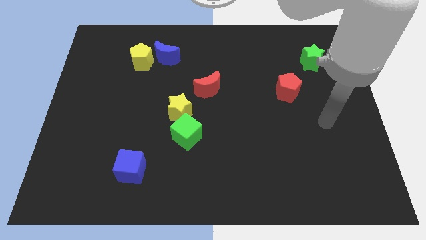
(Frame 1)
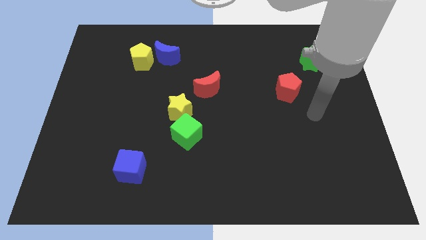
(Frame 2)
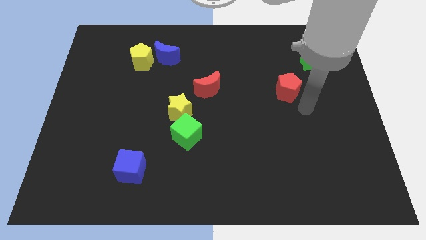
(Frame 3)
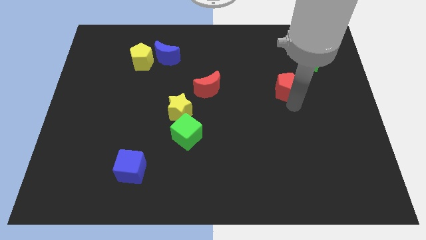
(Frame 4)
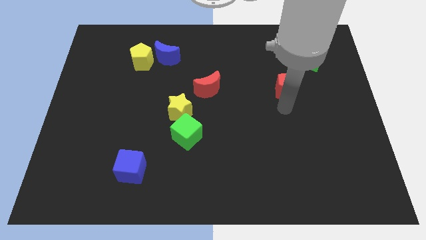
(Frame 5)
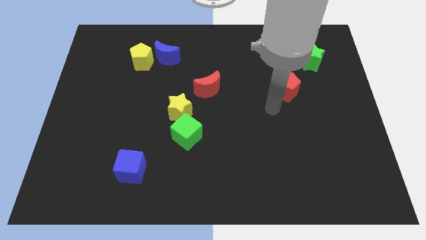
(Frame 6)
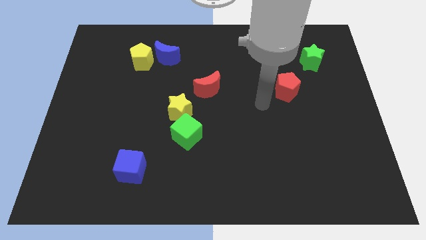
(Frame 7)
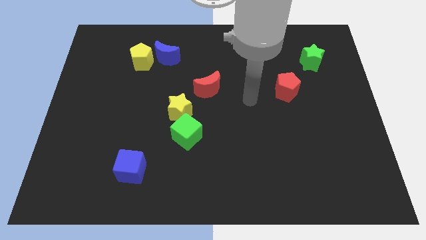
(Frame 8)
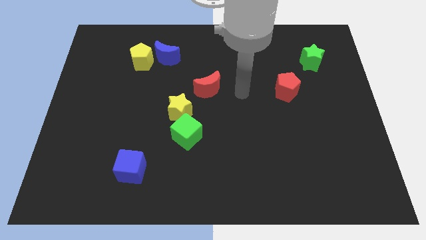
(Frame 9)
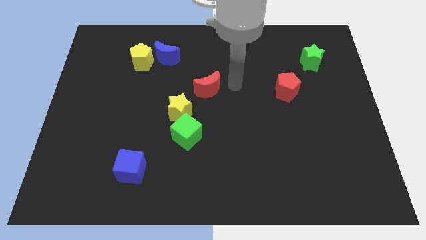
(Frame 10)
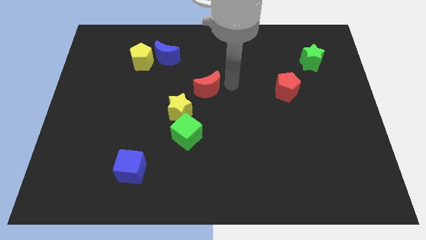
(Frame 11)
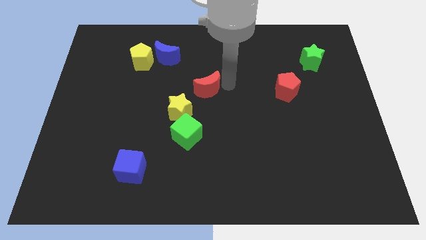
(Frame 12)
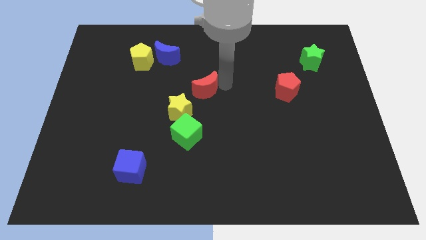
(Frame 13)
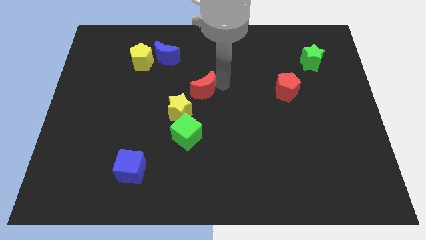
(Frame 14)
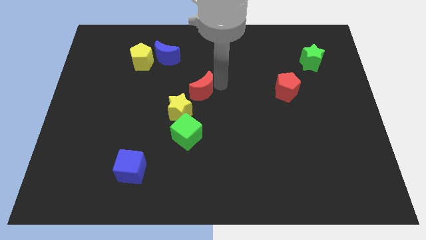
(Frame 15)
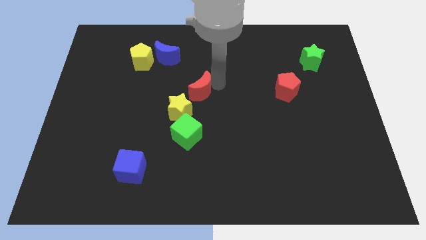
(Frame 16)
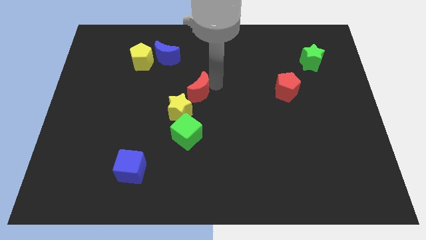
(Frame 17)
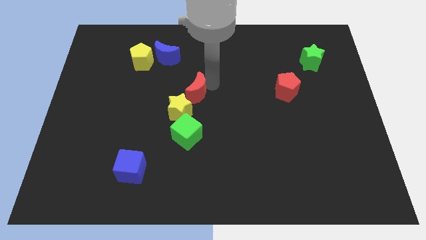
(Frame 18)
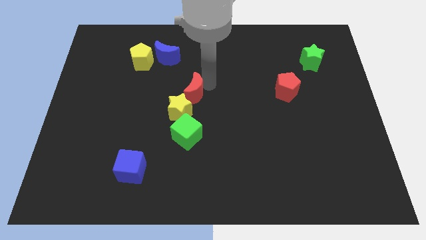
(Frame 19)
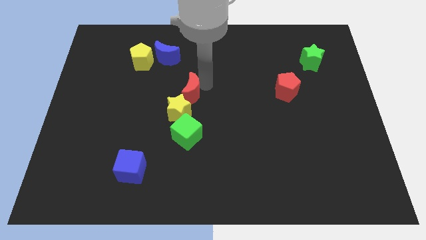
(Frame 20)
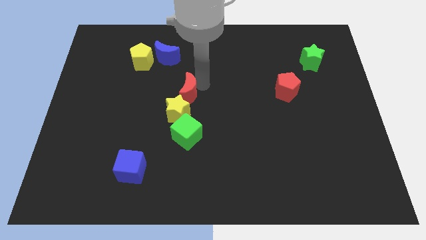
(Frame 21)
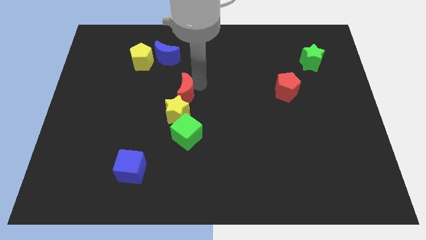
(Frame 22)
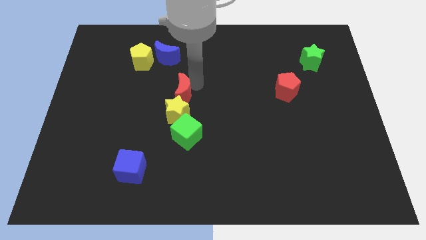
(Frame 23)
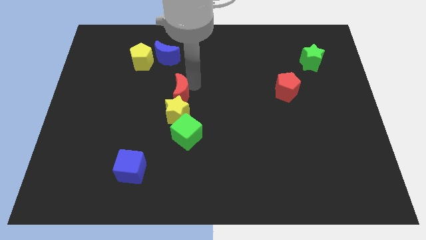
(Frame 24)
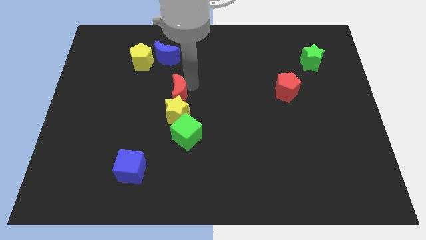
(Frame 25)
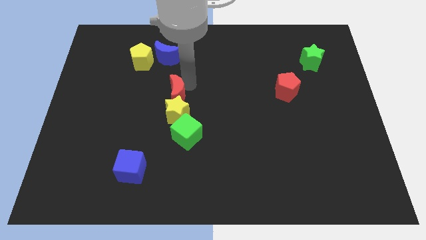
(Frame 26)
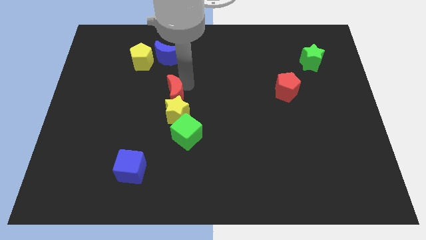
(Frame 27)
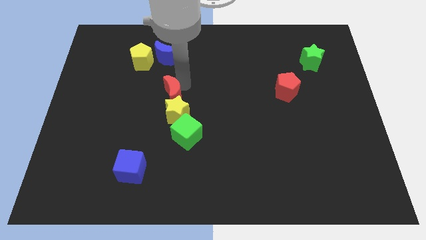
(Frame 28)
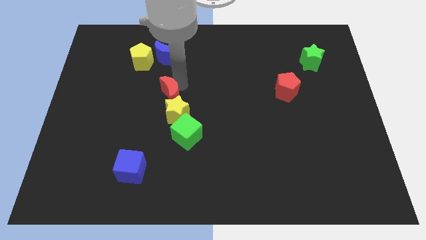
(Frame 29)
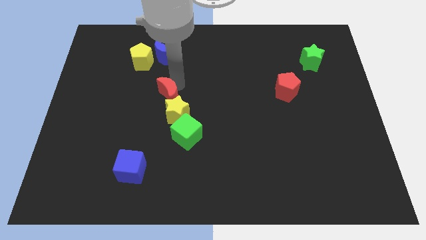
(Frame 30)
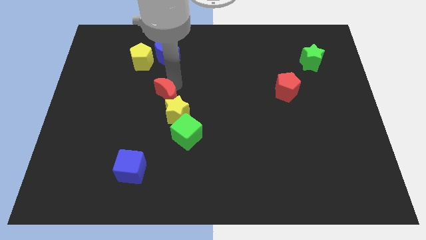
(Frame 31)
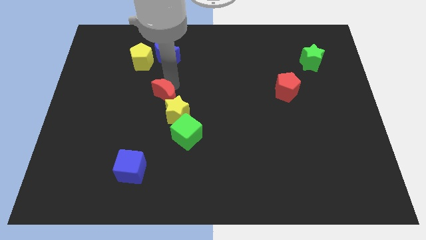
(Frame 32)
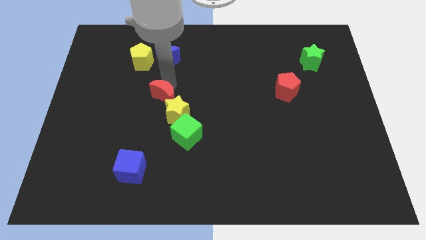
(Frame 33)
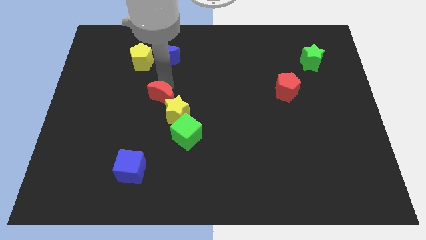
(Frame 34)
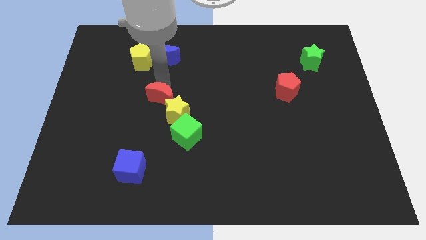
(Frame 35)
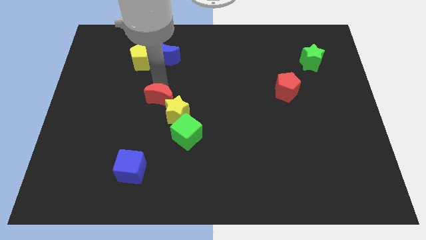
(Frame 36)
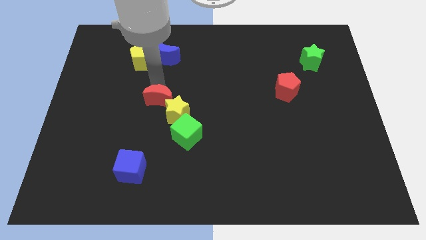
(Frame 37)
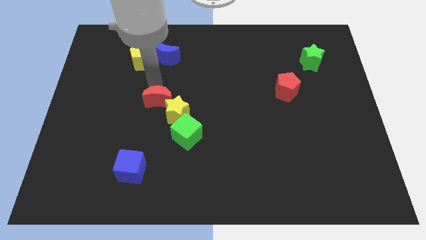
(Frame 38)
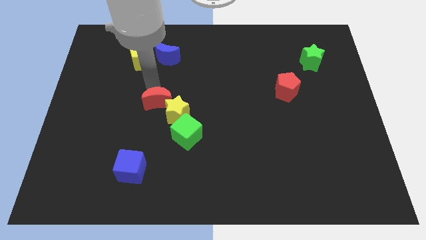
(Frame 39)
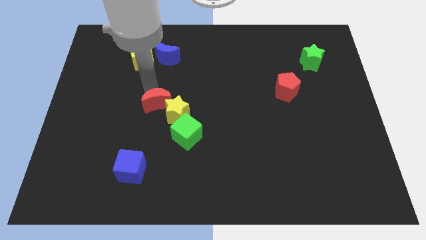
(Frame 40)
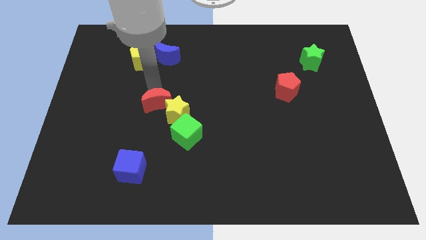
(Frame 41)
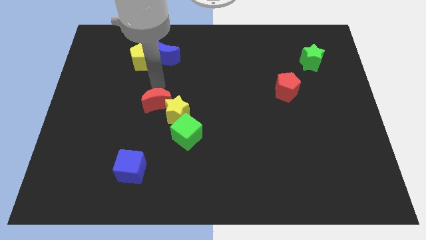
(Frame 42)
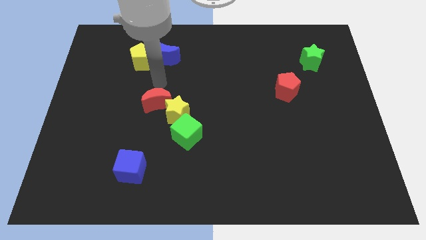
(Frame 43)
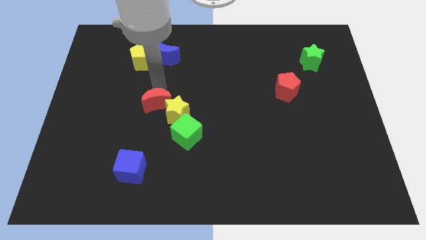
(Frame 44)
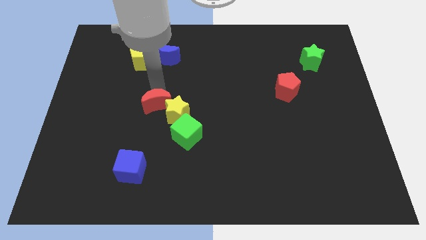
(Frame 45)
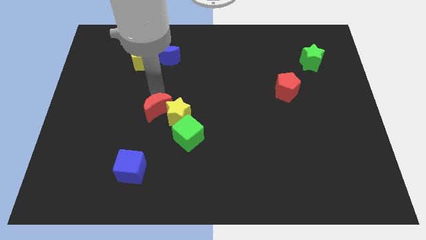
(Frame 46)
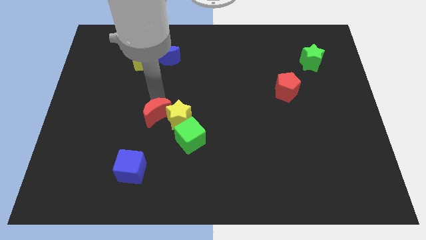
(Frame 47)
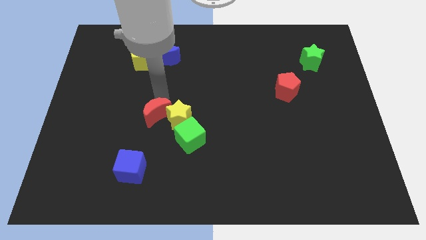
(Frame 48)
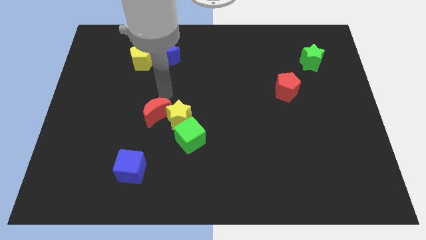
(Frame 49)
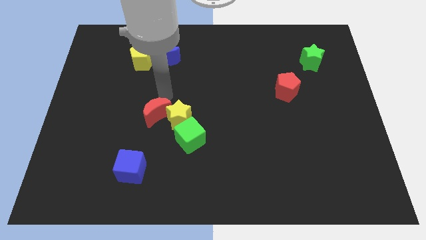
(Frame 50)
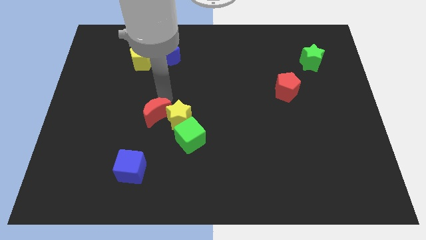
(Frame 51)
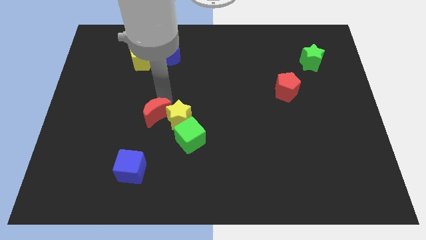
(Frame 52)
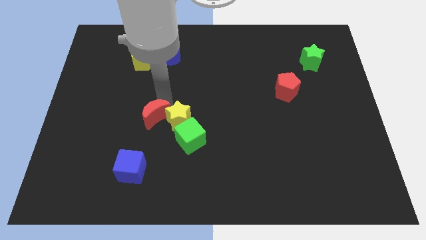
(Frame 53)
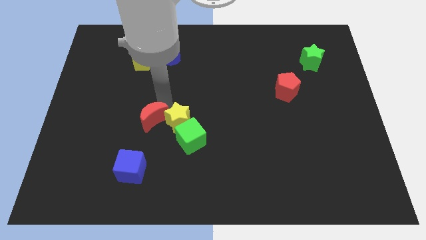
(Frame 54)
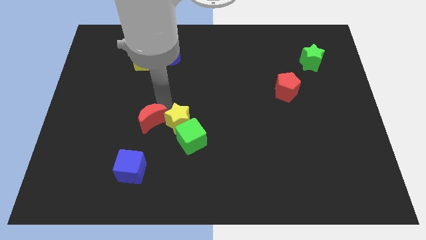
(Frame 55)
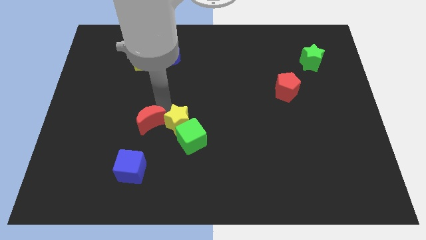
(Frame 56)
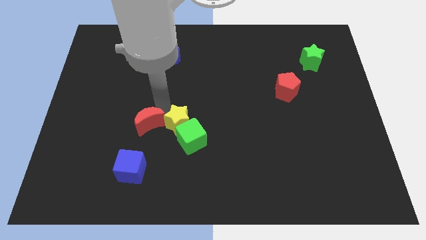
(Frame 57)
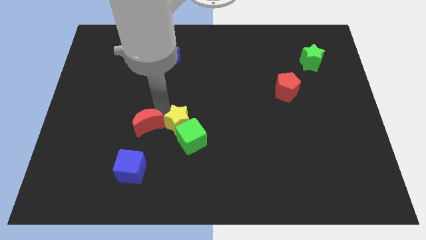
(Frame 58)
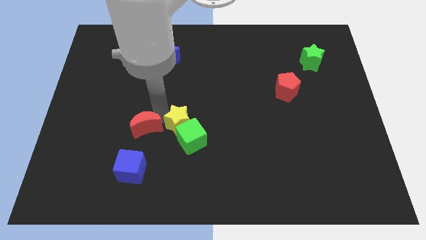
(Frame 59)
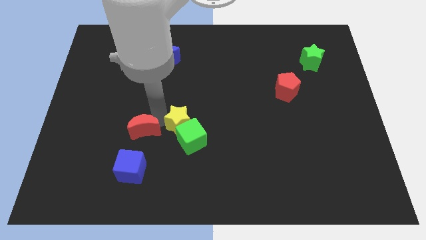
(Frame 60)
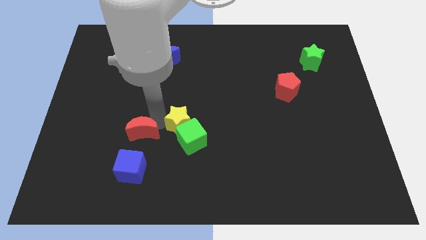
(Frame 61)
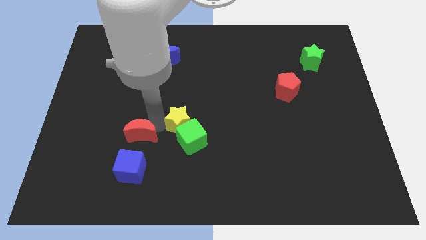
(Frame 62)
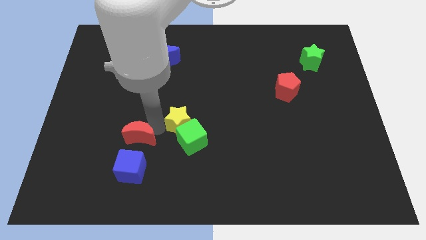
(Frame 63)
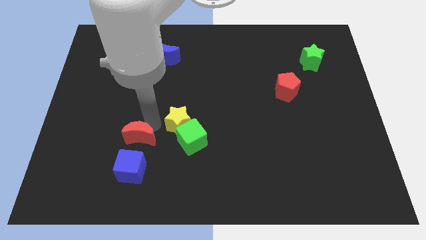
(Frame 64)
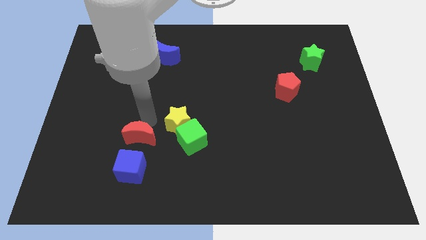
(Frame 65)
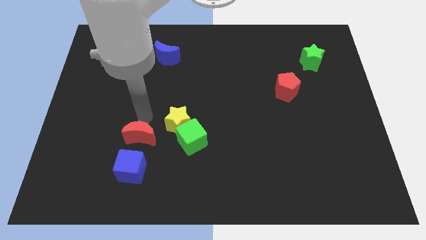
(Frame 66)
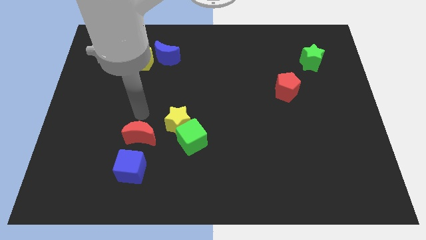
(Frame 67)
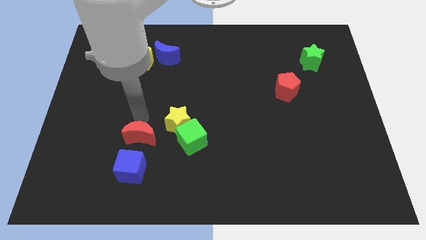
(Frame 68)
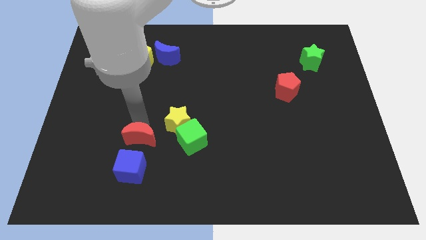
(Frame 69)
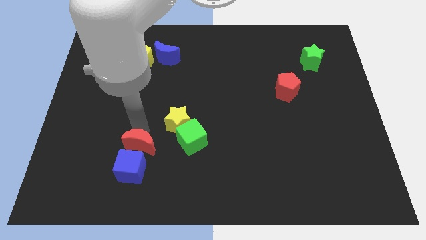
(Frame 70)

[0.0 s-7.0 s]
move the red moon towards the blue cube

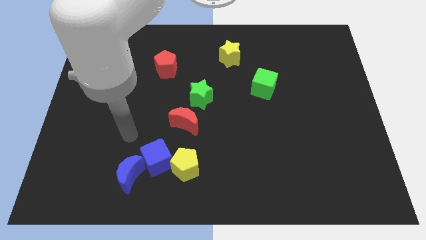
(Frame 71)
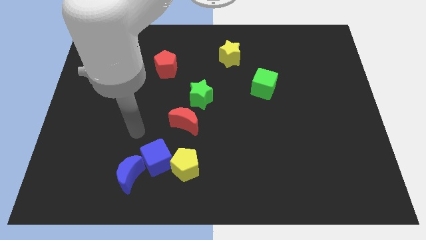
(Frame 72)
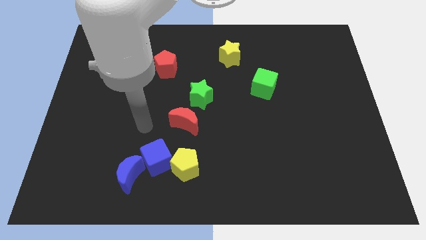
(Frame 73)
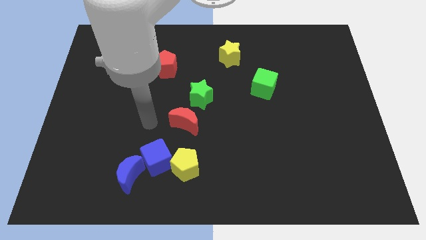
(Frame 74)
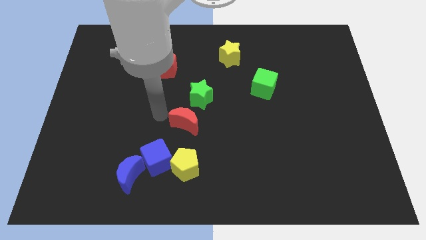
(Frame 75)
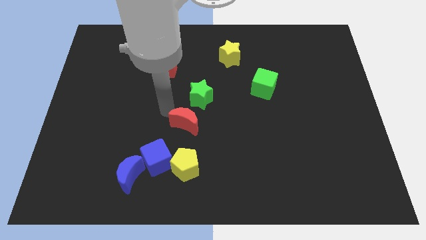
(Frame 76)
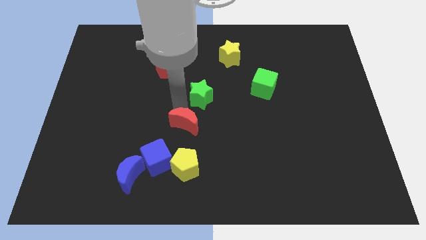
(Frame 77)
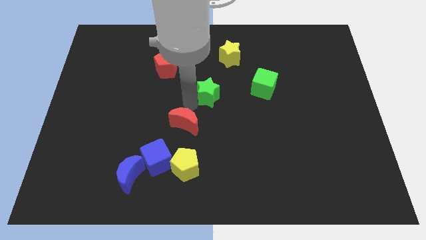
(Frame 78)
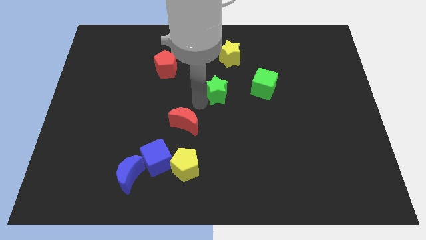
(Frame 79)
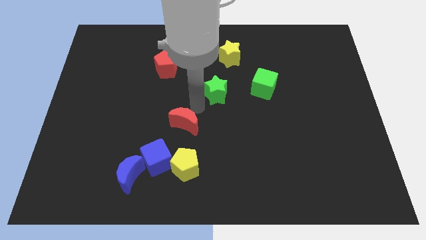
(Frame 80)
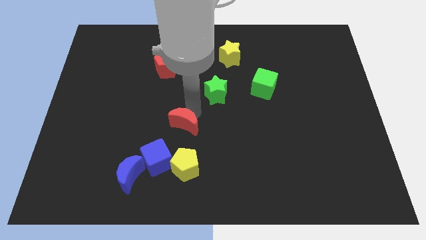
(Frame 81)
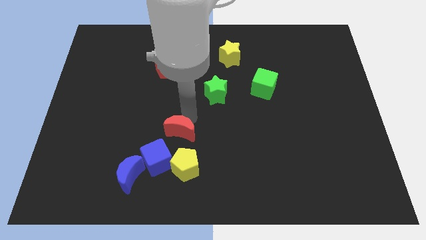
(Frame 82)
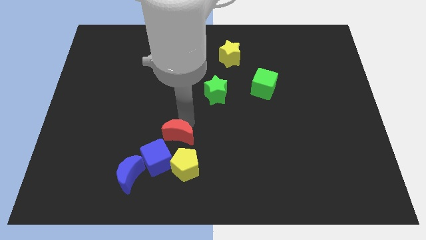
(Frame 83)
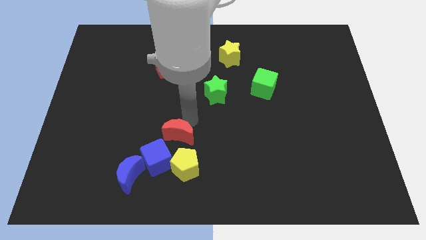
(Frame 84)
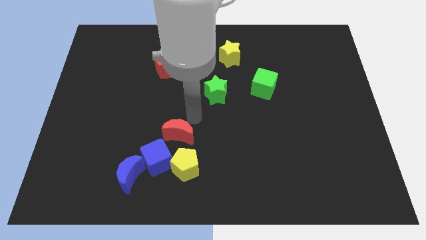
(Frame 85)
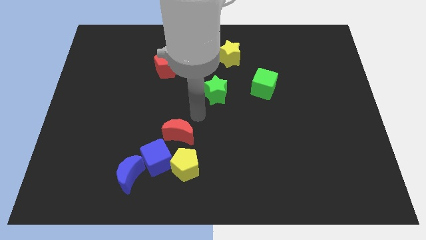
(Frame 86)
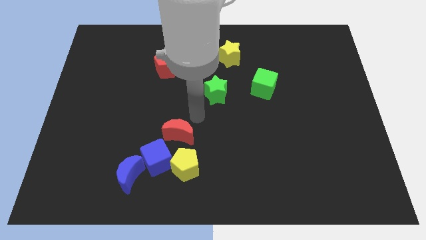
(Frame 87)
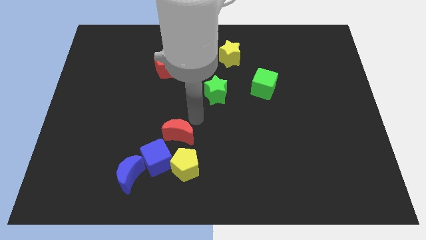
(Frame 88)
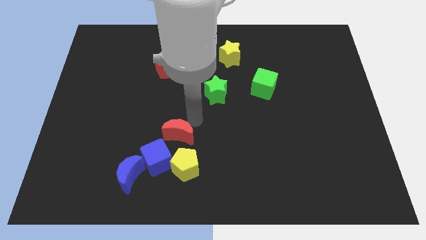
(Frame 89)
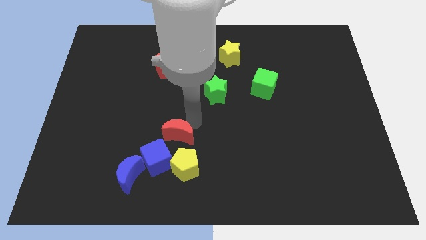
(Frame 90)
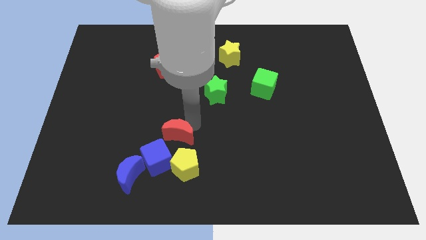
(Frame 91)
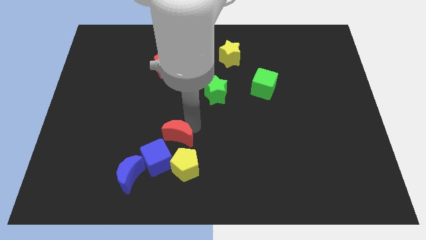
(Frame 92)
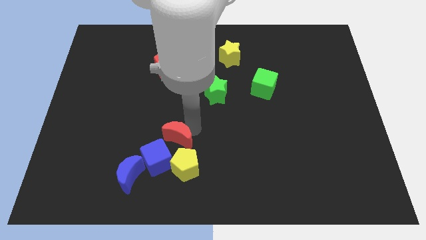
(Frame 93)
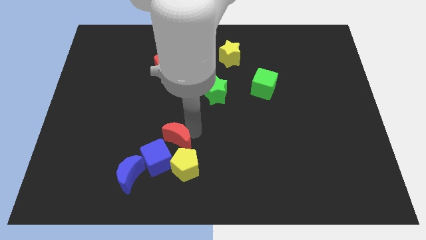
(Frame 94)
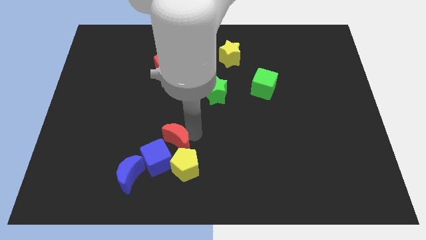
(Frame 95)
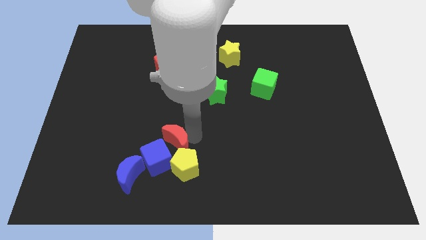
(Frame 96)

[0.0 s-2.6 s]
move the red moon close to the blue cube
